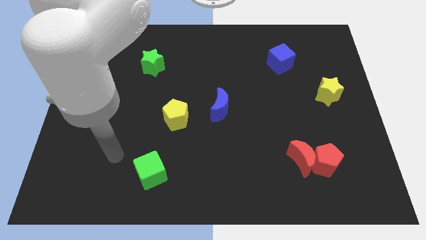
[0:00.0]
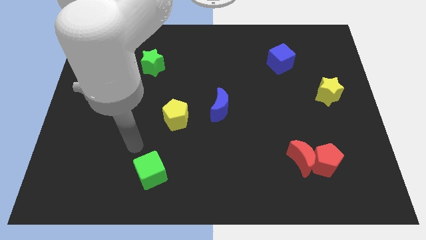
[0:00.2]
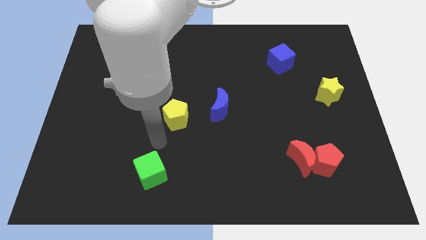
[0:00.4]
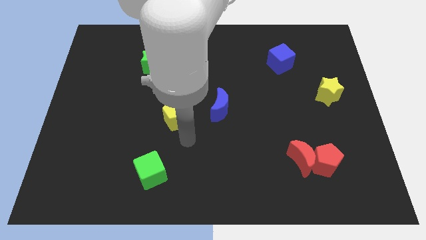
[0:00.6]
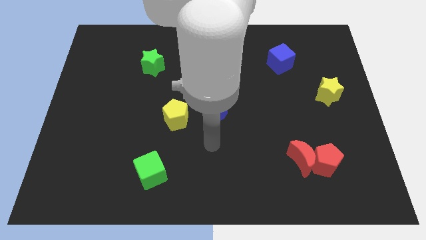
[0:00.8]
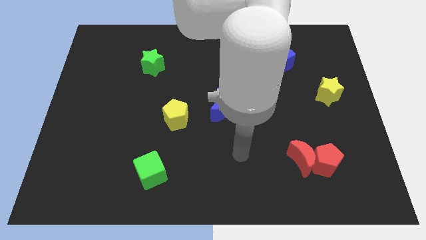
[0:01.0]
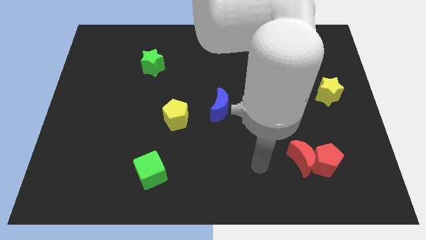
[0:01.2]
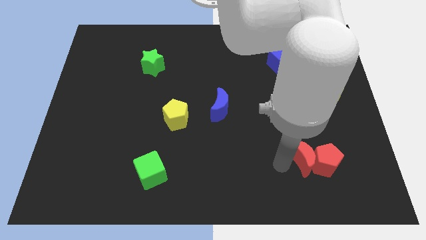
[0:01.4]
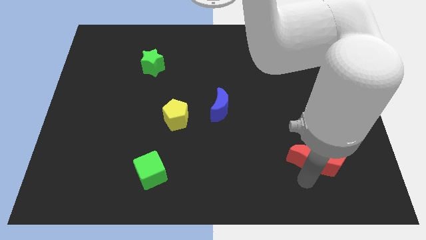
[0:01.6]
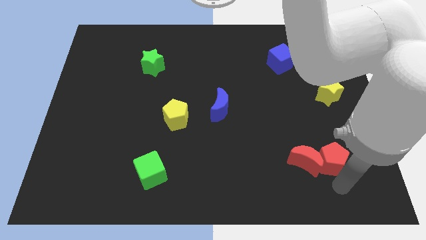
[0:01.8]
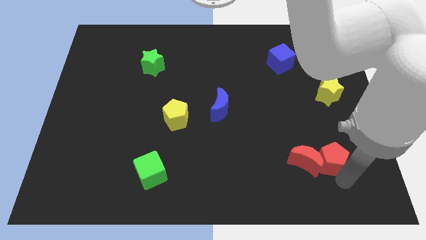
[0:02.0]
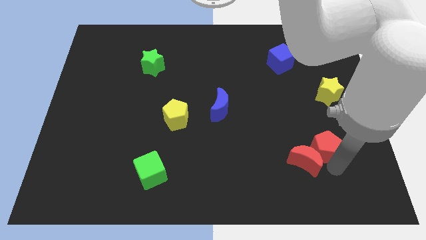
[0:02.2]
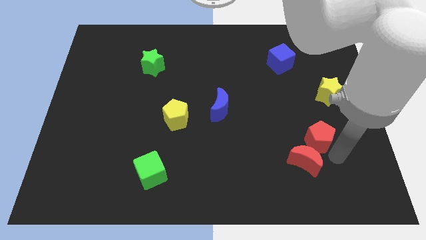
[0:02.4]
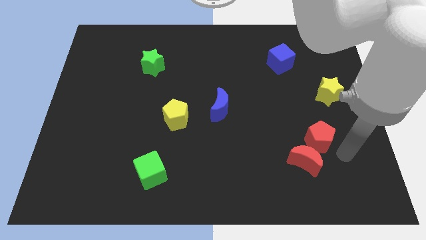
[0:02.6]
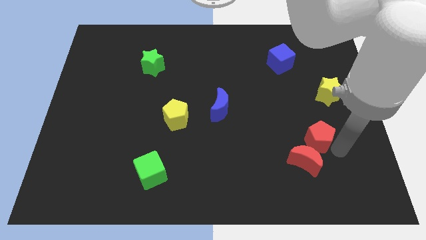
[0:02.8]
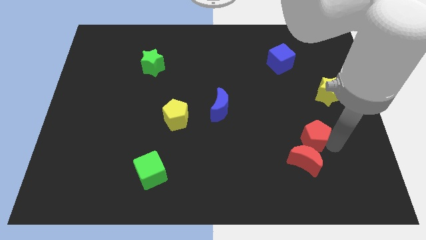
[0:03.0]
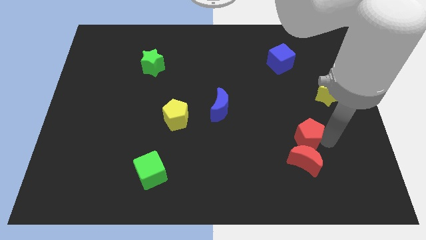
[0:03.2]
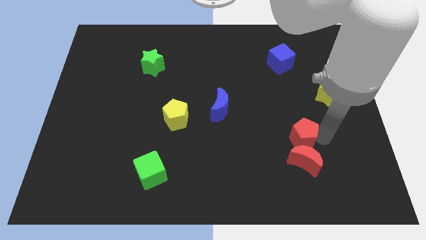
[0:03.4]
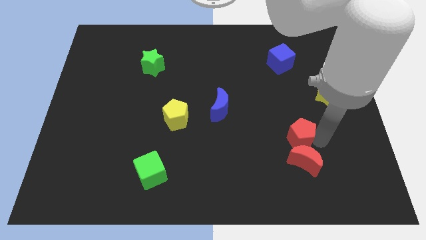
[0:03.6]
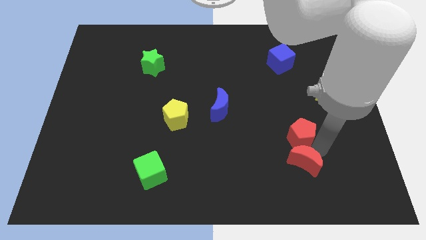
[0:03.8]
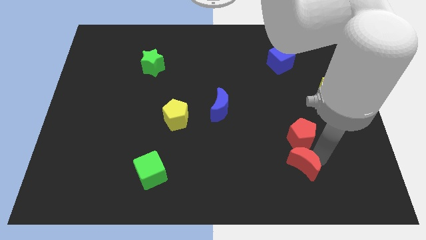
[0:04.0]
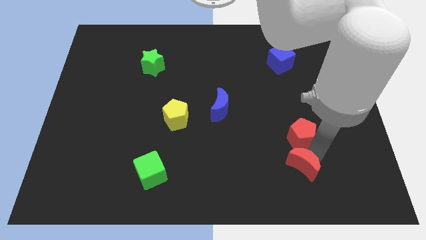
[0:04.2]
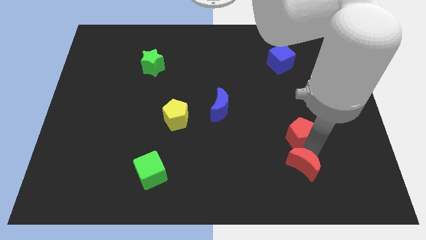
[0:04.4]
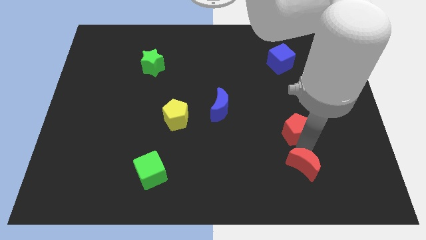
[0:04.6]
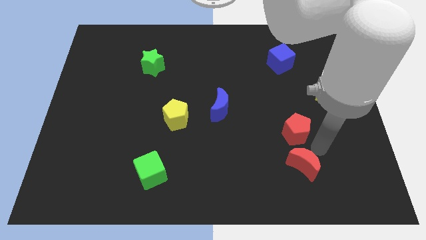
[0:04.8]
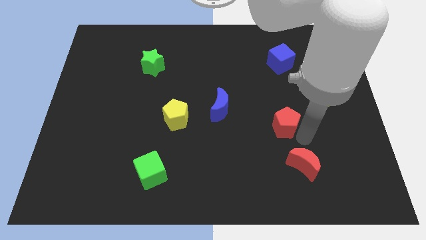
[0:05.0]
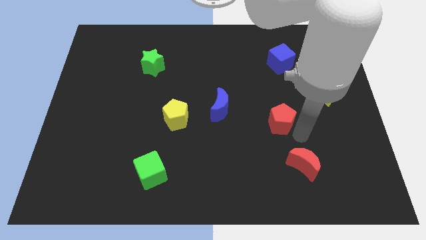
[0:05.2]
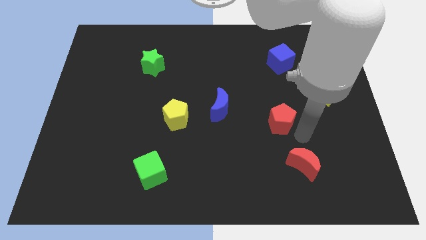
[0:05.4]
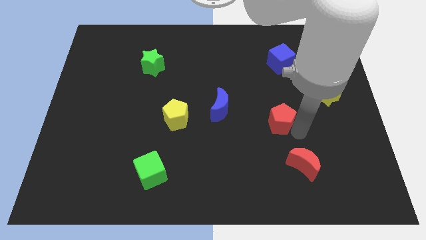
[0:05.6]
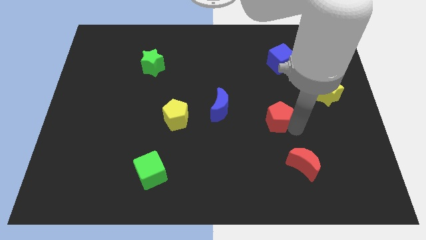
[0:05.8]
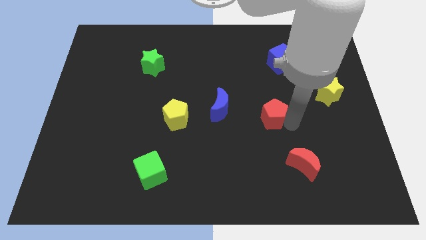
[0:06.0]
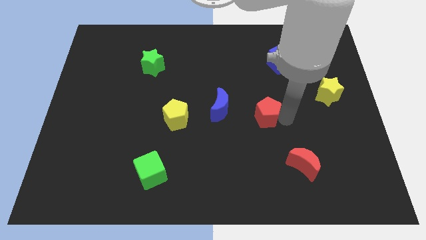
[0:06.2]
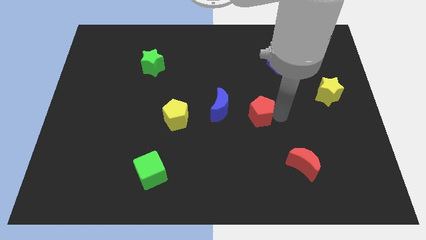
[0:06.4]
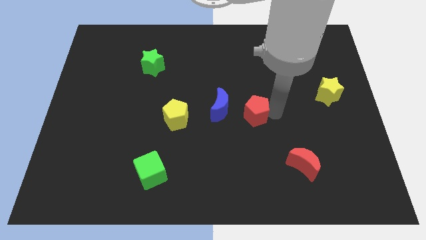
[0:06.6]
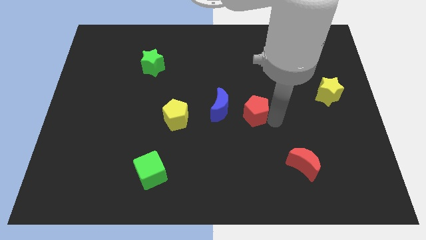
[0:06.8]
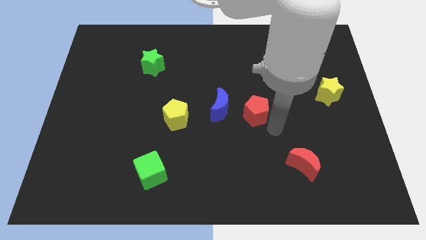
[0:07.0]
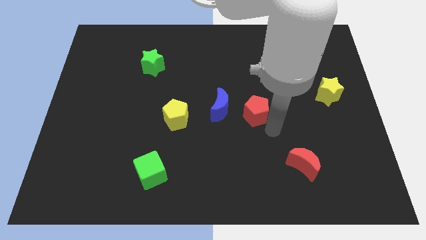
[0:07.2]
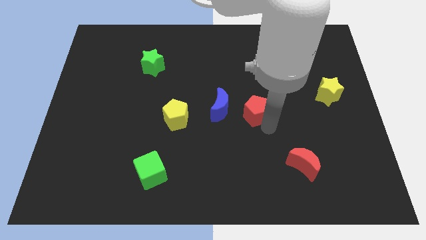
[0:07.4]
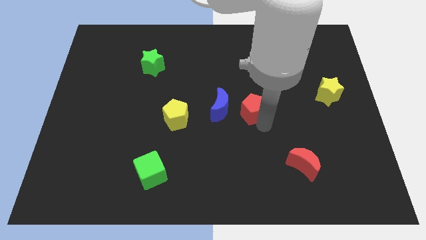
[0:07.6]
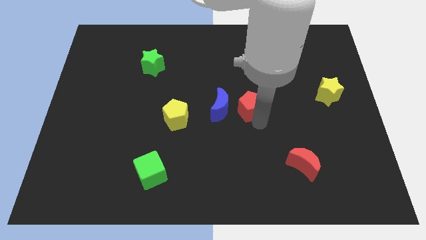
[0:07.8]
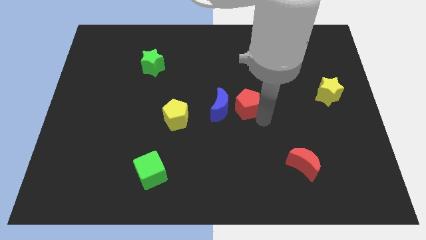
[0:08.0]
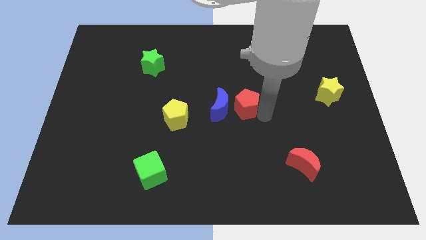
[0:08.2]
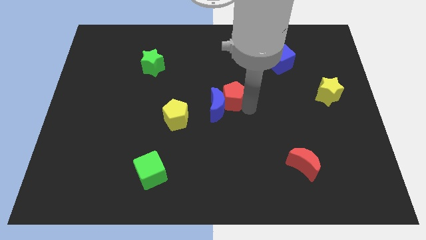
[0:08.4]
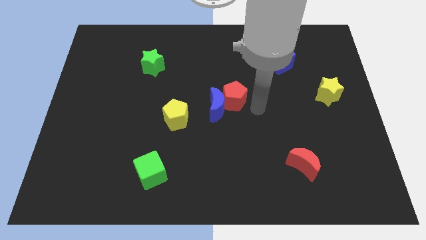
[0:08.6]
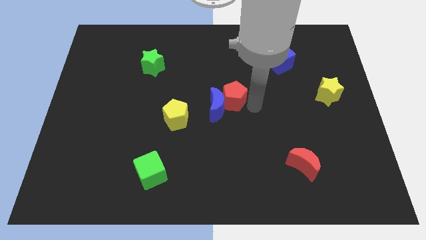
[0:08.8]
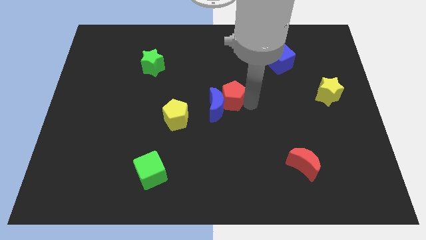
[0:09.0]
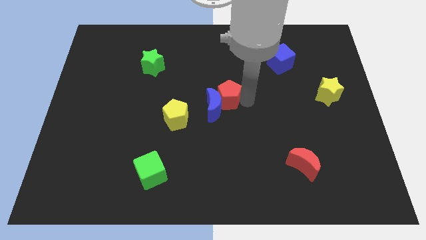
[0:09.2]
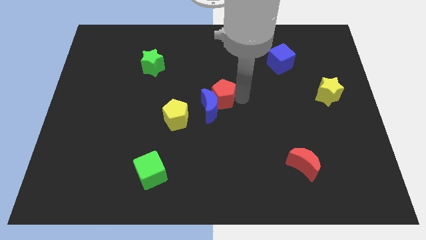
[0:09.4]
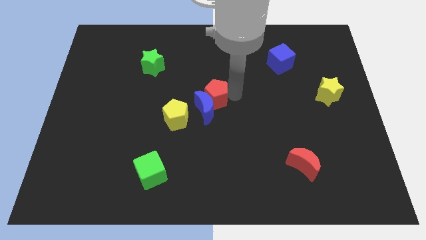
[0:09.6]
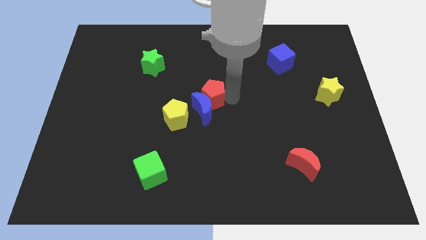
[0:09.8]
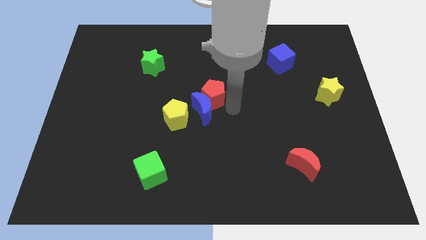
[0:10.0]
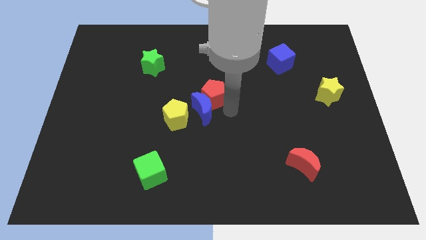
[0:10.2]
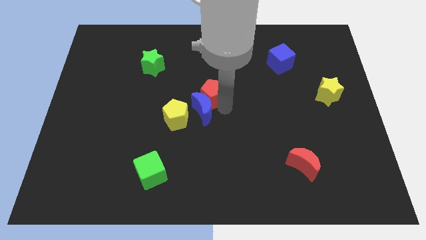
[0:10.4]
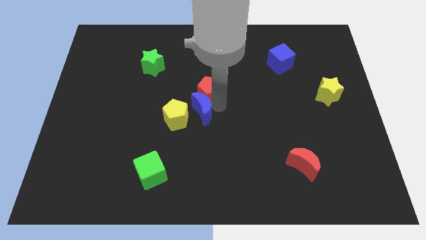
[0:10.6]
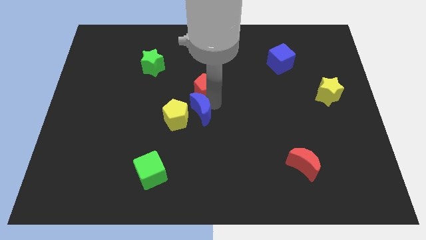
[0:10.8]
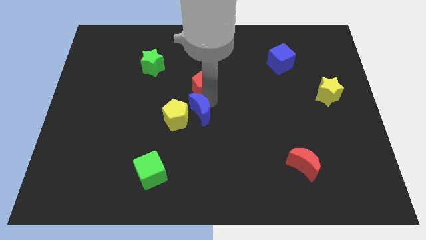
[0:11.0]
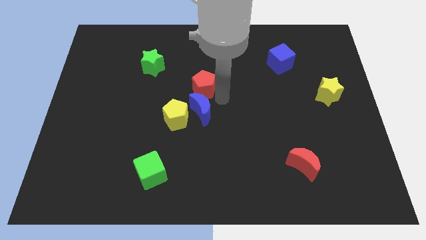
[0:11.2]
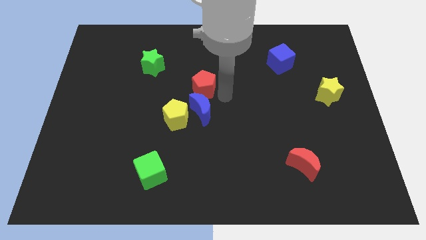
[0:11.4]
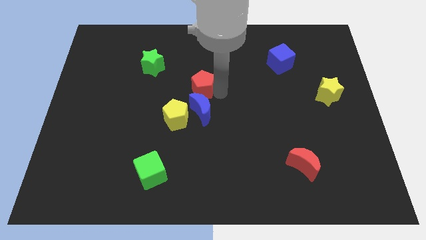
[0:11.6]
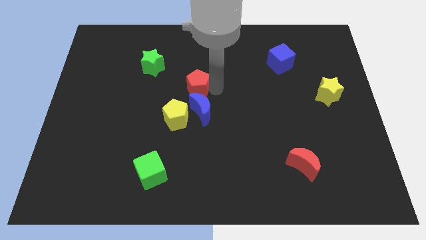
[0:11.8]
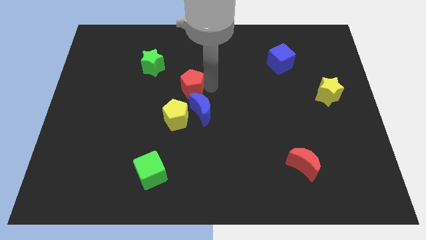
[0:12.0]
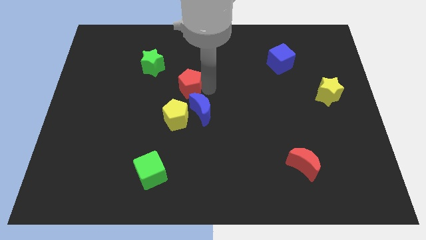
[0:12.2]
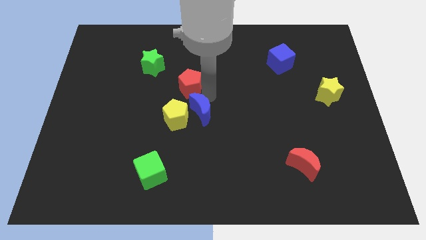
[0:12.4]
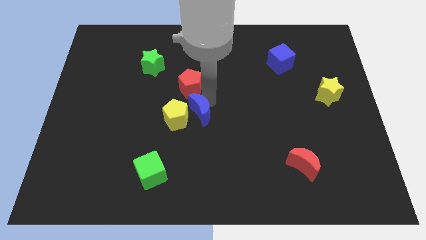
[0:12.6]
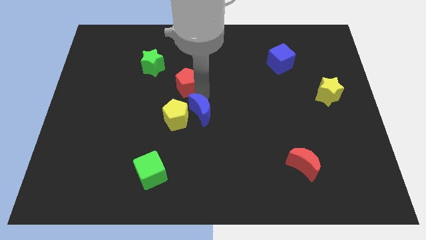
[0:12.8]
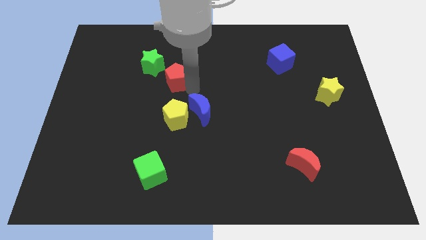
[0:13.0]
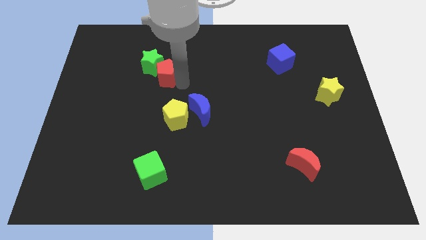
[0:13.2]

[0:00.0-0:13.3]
push the red pentagon to the green star

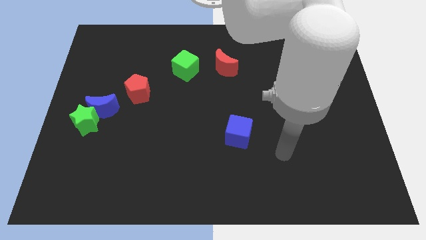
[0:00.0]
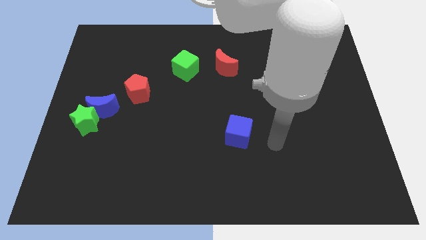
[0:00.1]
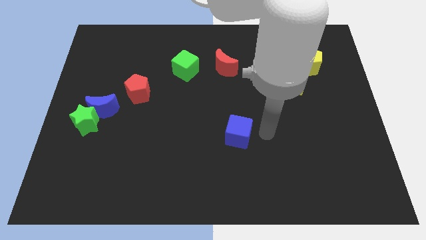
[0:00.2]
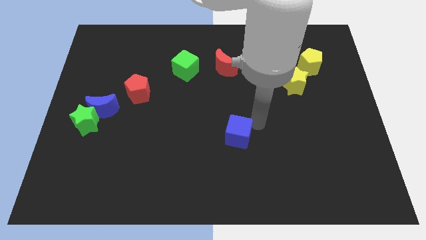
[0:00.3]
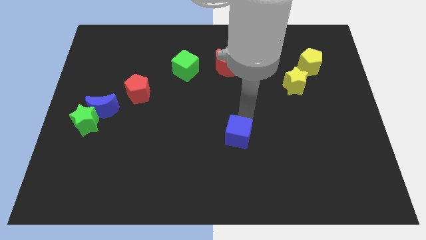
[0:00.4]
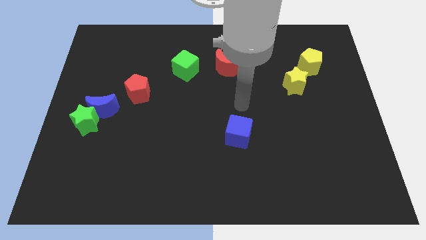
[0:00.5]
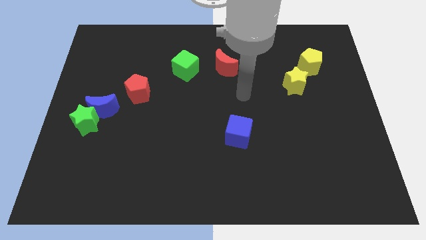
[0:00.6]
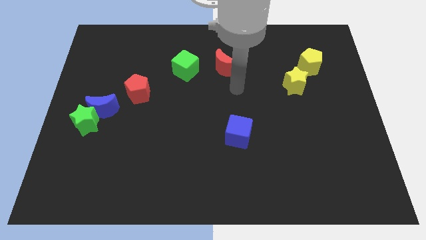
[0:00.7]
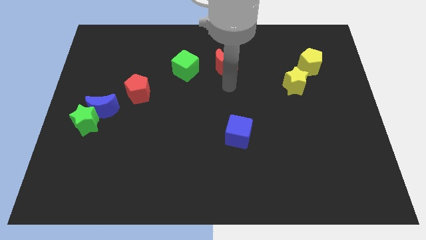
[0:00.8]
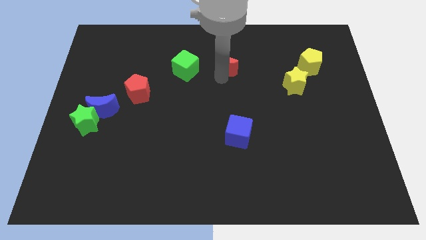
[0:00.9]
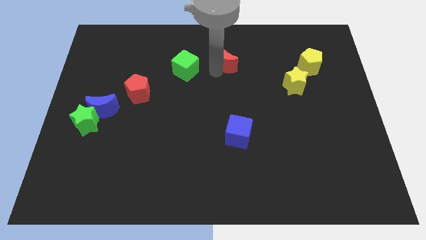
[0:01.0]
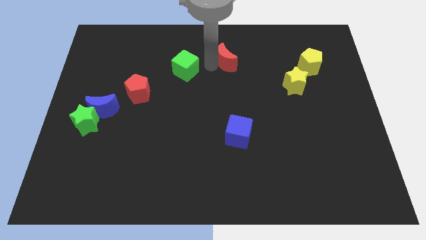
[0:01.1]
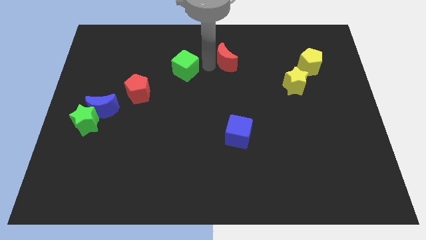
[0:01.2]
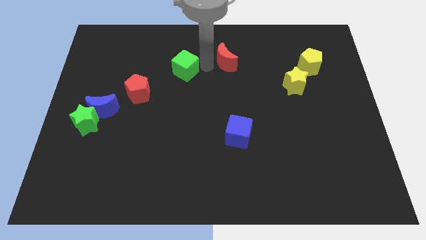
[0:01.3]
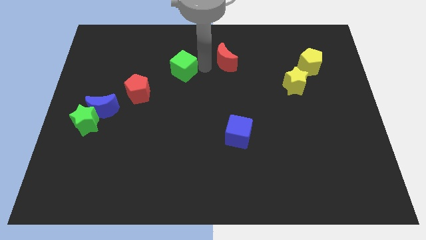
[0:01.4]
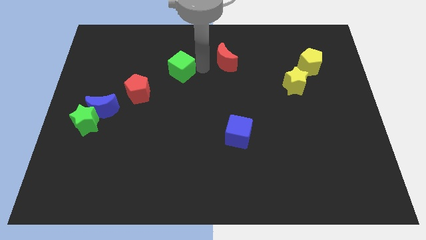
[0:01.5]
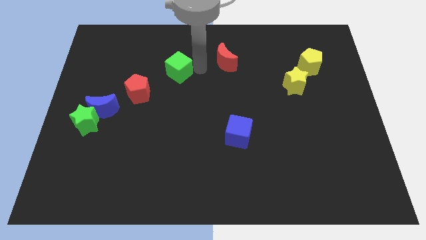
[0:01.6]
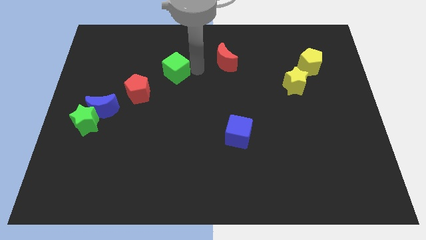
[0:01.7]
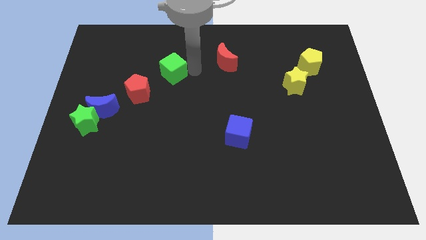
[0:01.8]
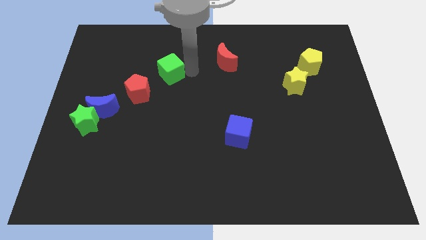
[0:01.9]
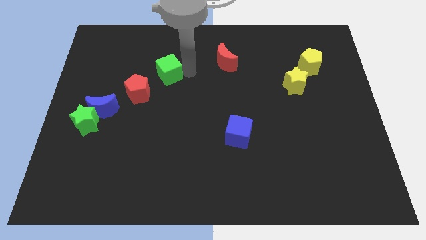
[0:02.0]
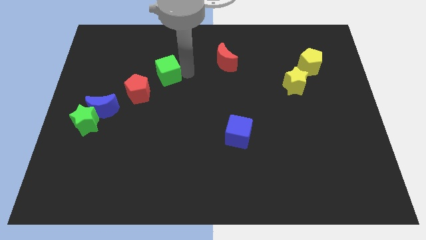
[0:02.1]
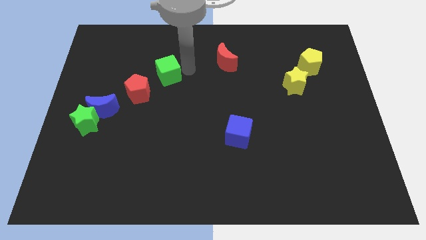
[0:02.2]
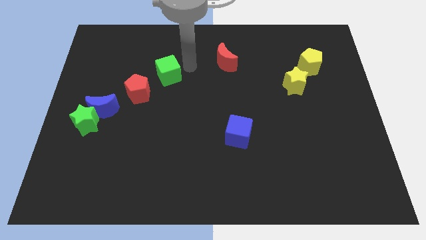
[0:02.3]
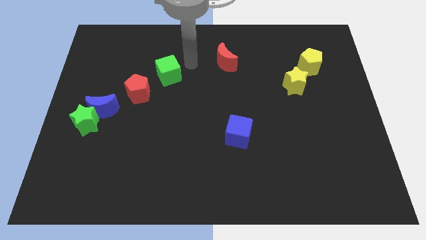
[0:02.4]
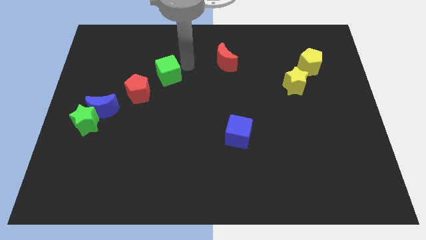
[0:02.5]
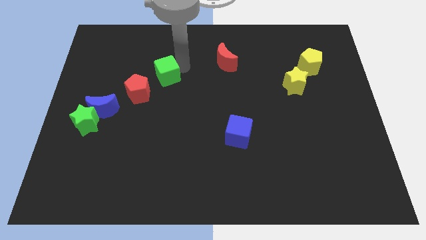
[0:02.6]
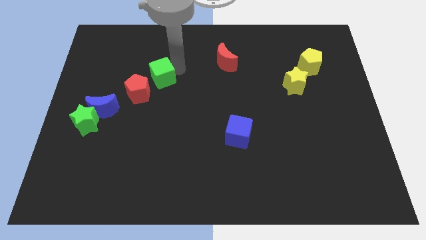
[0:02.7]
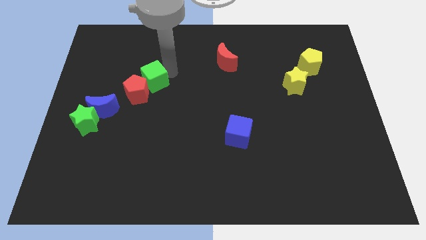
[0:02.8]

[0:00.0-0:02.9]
put the green cube towards the red pentagon
